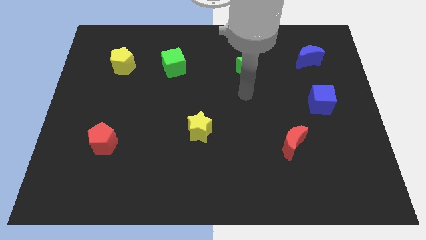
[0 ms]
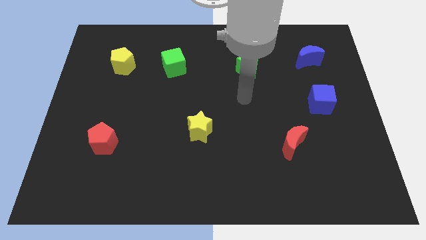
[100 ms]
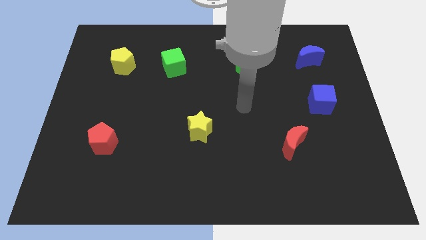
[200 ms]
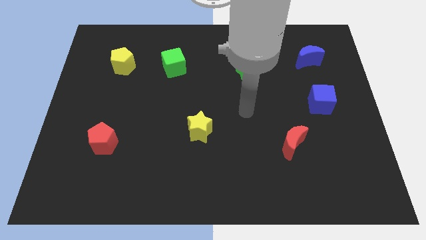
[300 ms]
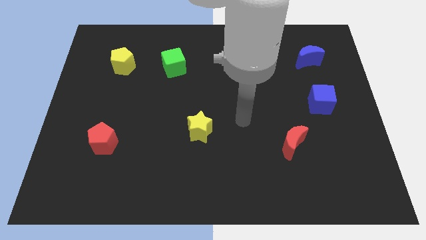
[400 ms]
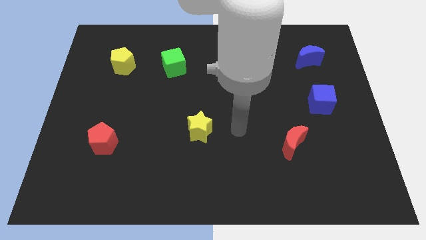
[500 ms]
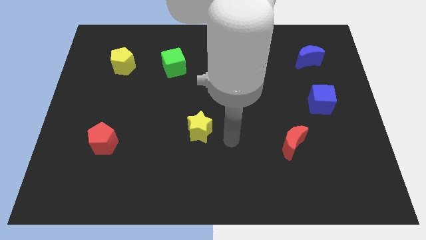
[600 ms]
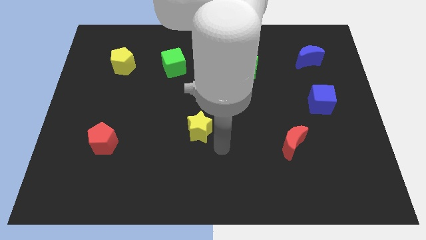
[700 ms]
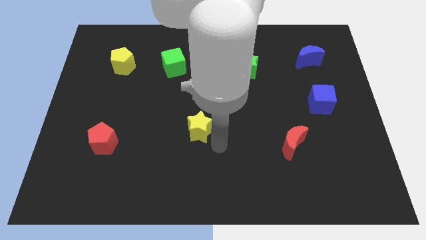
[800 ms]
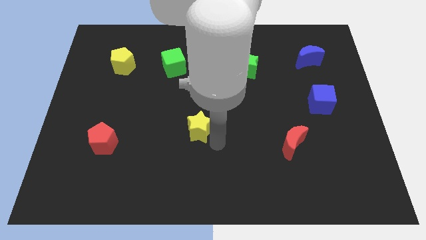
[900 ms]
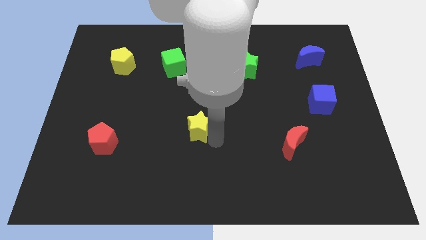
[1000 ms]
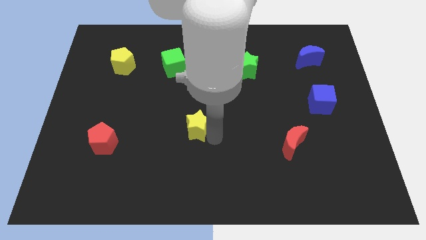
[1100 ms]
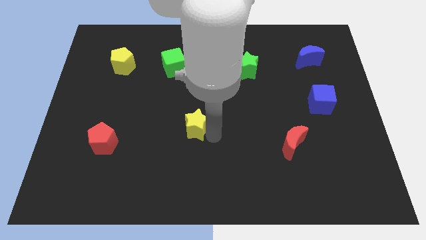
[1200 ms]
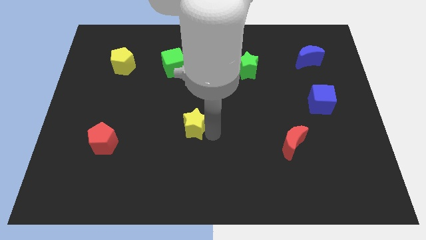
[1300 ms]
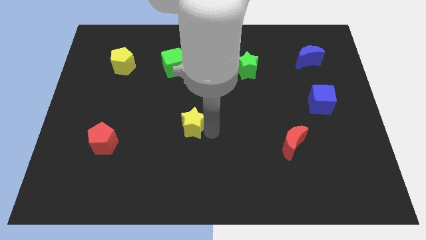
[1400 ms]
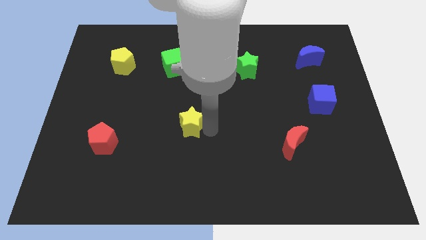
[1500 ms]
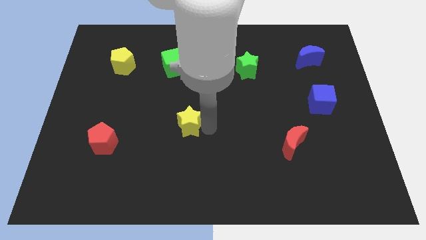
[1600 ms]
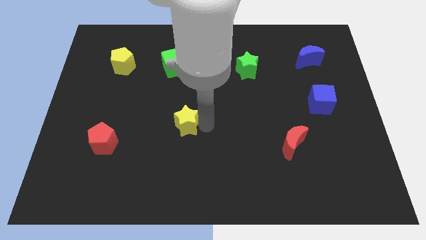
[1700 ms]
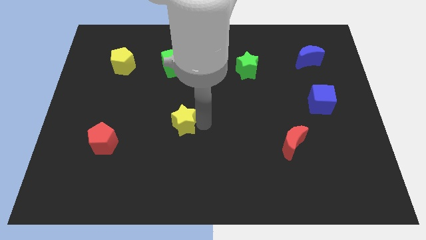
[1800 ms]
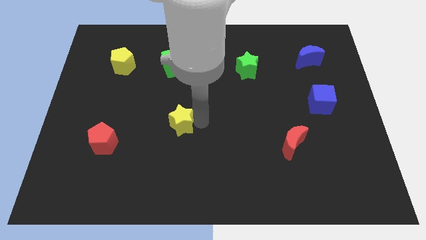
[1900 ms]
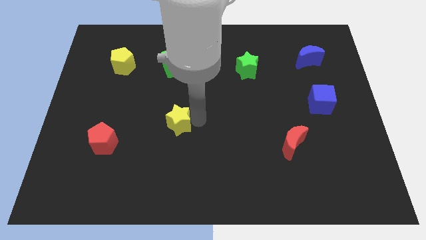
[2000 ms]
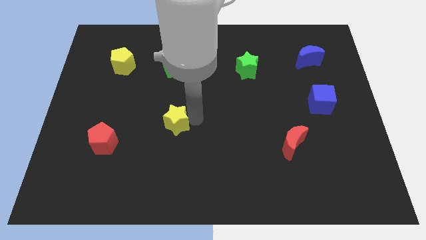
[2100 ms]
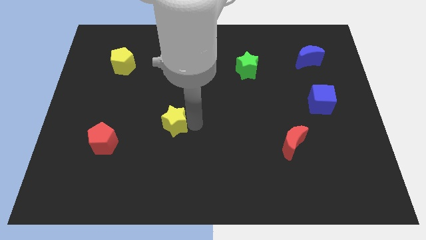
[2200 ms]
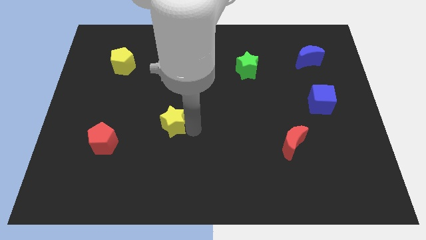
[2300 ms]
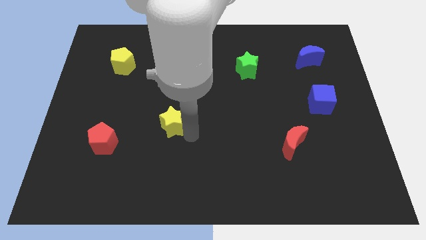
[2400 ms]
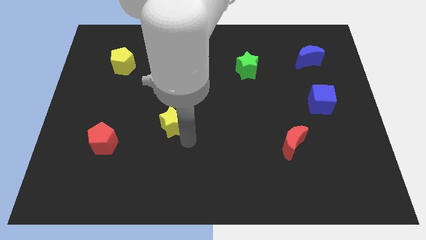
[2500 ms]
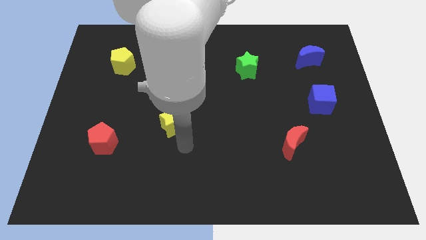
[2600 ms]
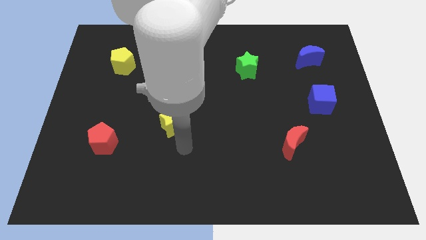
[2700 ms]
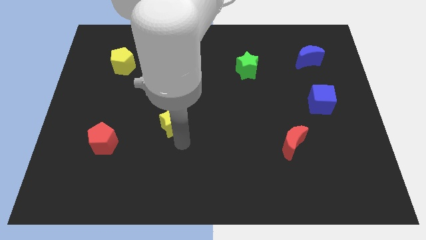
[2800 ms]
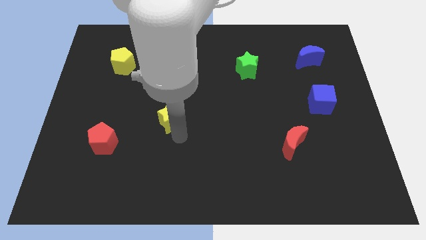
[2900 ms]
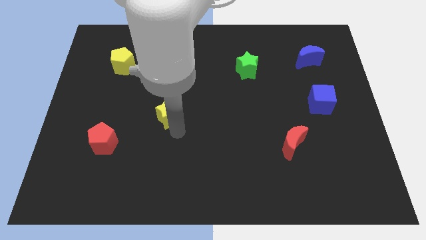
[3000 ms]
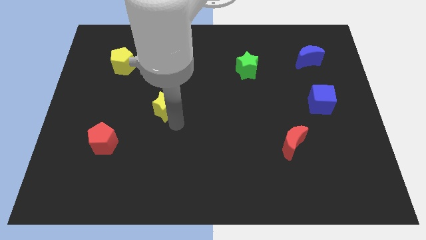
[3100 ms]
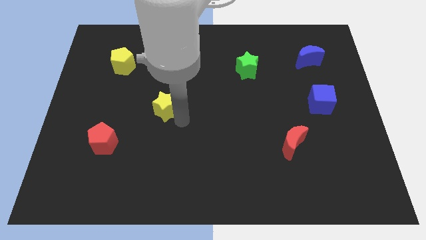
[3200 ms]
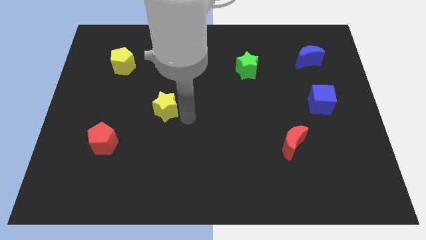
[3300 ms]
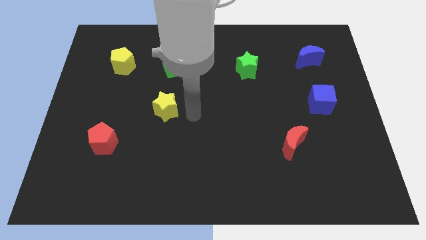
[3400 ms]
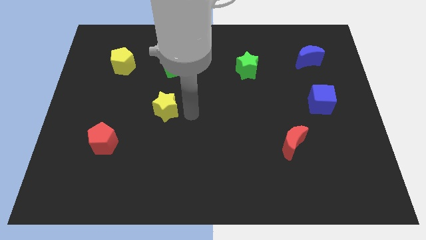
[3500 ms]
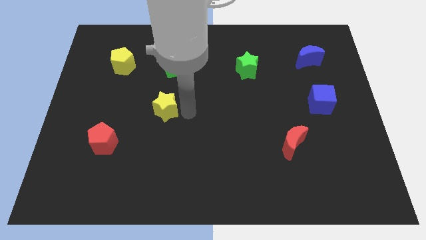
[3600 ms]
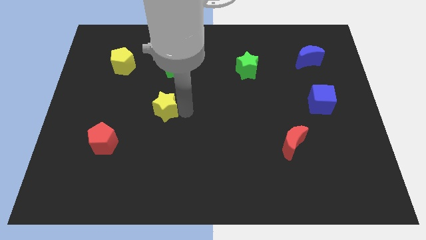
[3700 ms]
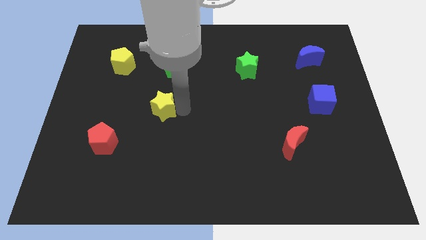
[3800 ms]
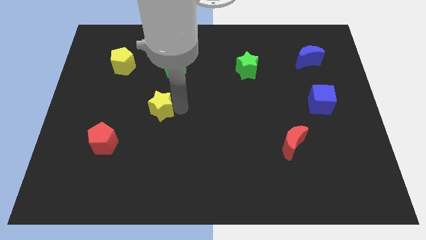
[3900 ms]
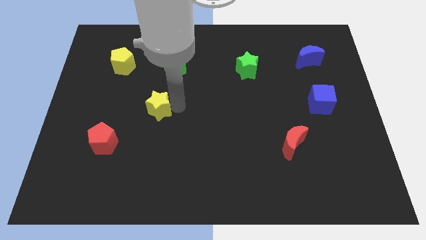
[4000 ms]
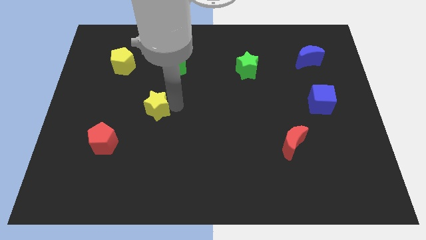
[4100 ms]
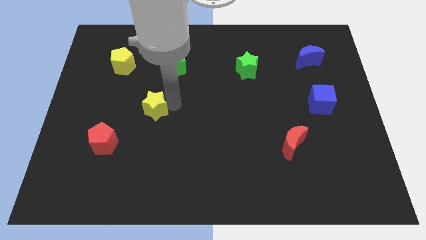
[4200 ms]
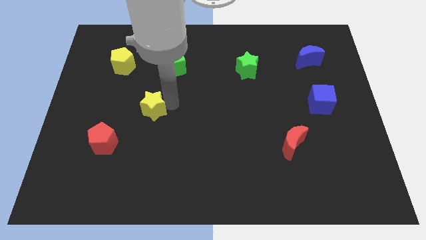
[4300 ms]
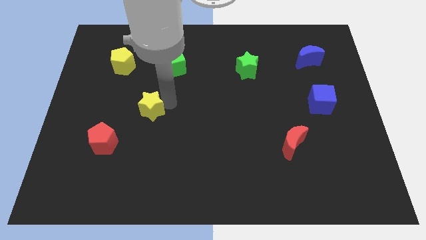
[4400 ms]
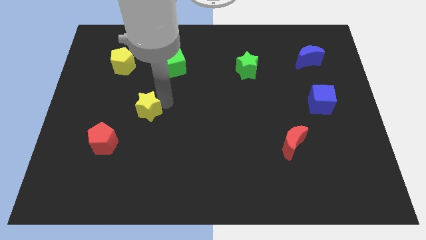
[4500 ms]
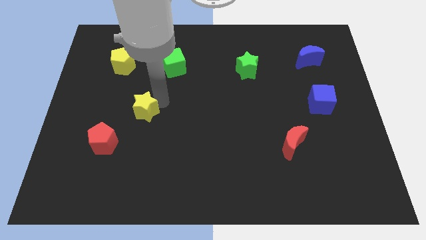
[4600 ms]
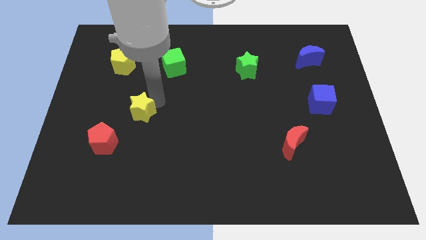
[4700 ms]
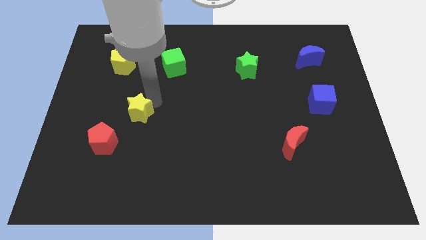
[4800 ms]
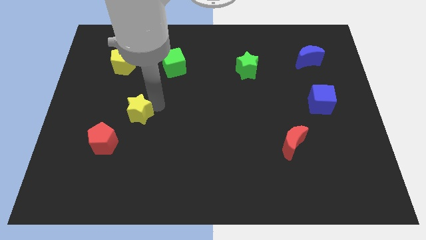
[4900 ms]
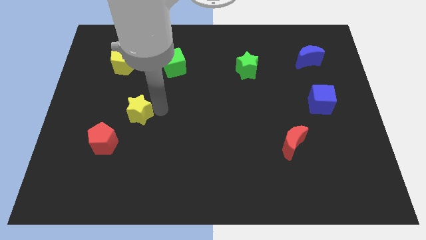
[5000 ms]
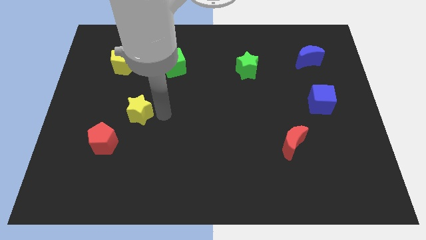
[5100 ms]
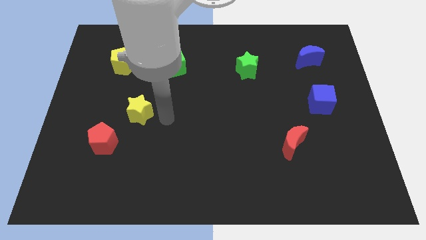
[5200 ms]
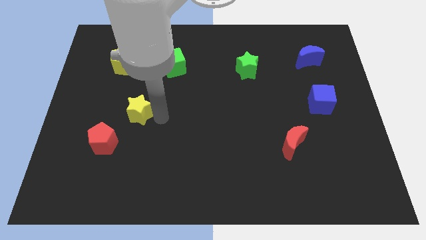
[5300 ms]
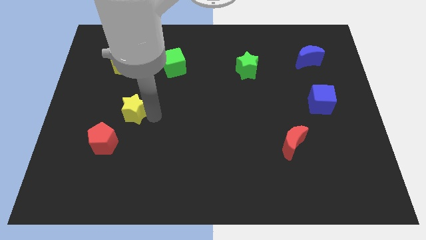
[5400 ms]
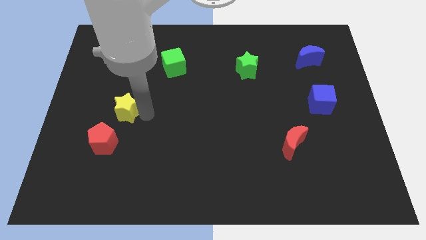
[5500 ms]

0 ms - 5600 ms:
slide the yellow star to the top side of the red pentagon
